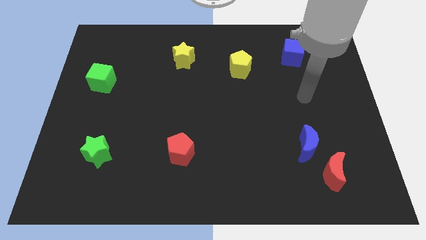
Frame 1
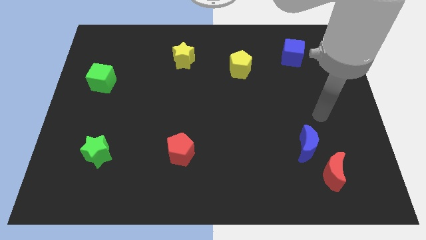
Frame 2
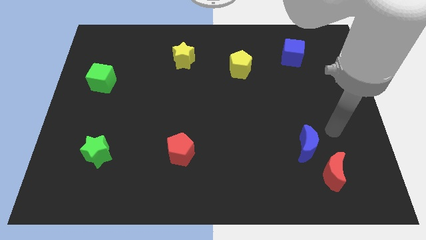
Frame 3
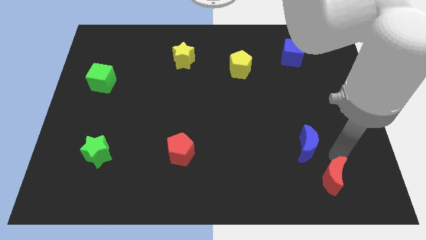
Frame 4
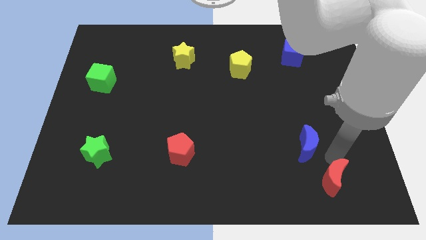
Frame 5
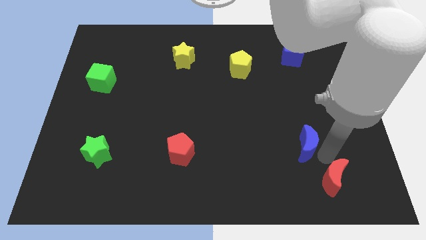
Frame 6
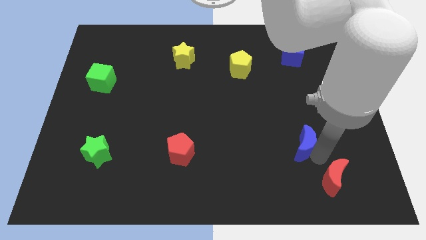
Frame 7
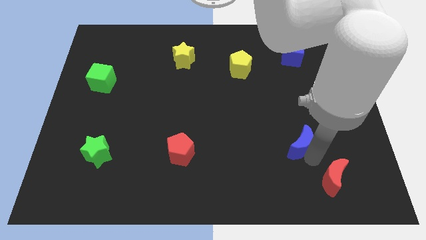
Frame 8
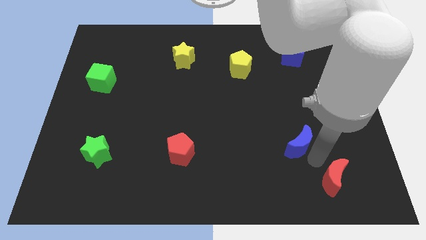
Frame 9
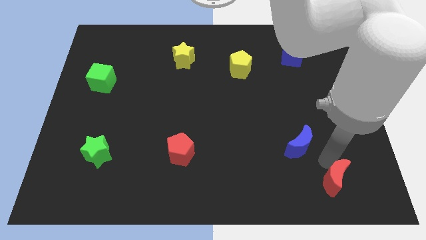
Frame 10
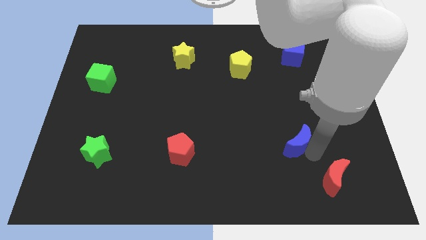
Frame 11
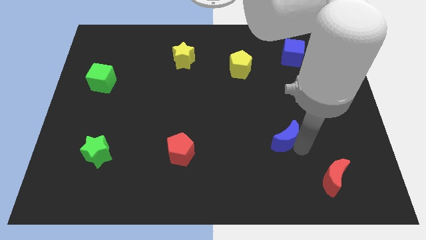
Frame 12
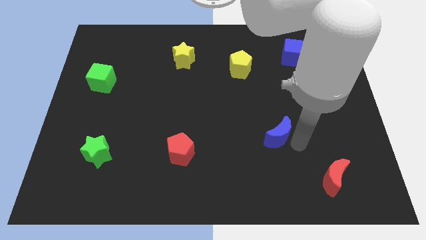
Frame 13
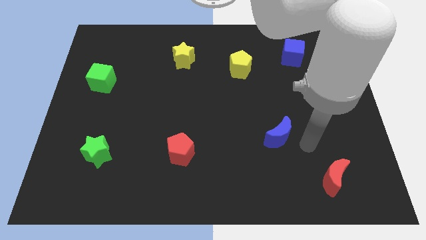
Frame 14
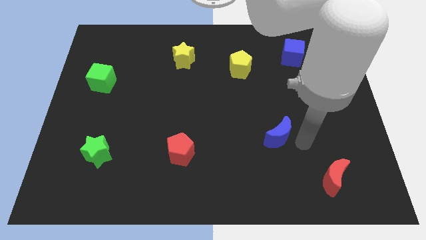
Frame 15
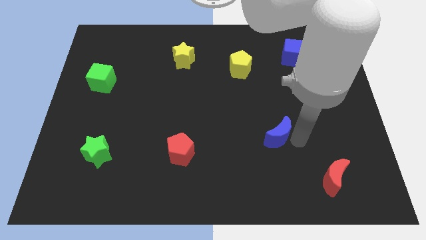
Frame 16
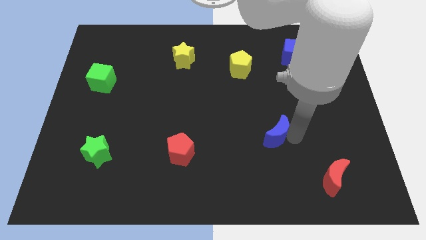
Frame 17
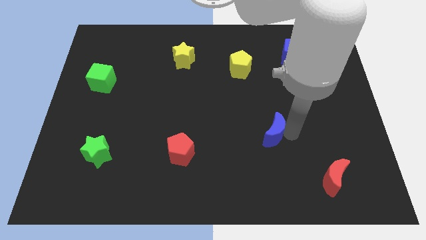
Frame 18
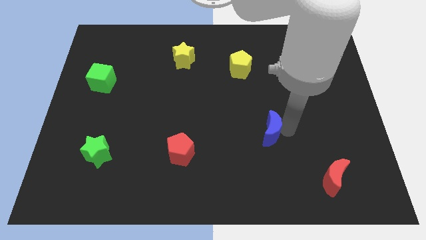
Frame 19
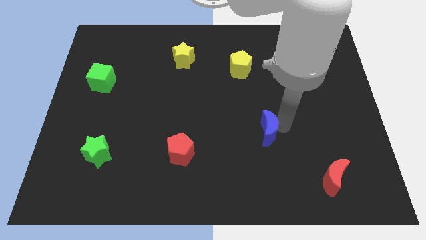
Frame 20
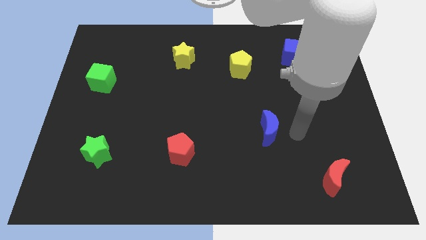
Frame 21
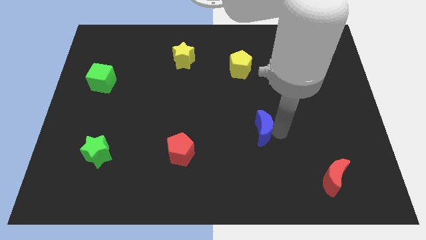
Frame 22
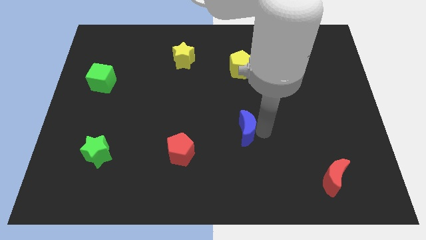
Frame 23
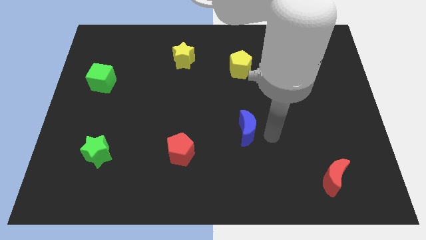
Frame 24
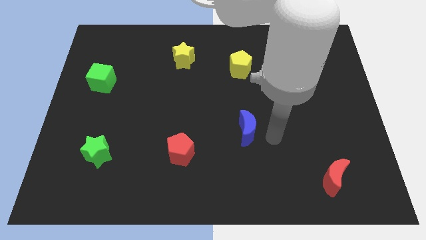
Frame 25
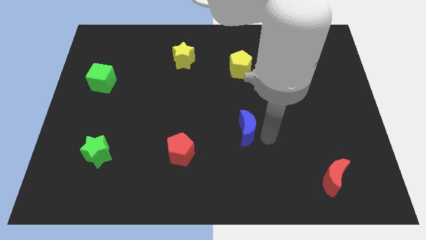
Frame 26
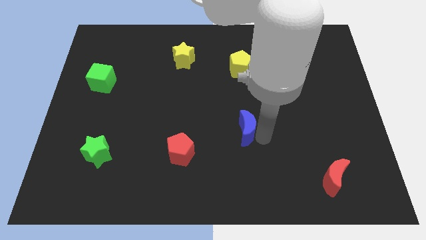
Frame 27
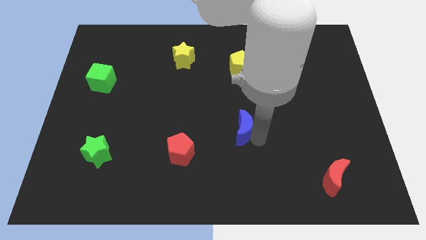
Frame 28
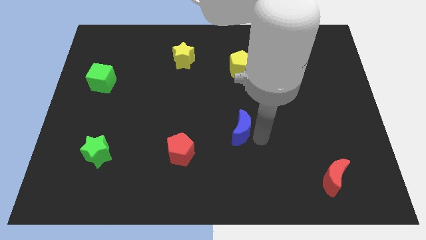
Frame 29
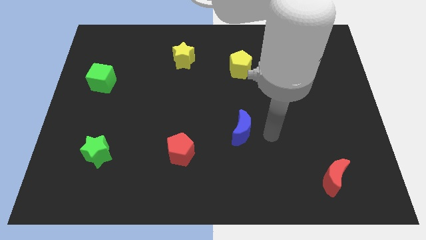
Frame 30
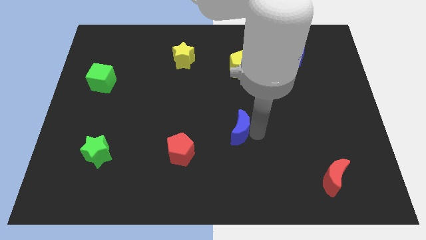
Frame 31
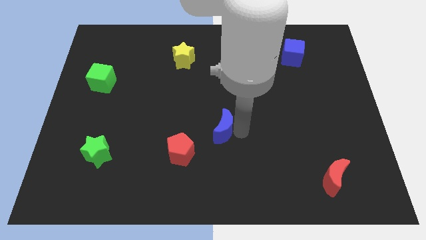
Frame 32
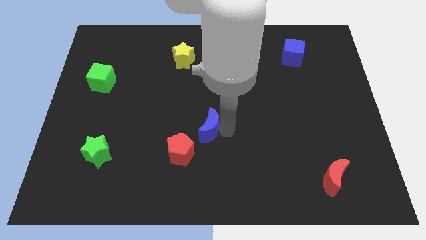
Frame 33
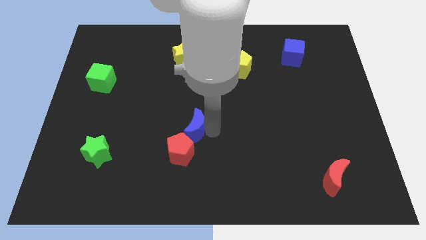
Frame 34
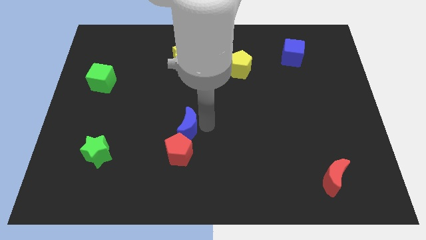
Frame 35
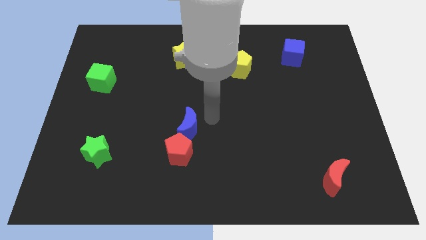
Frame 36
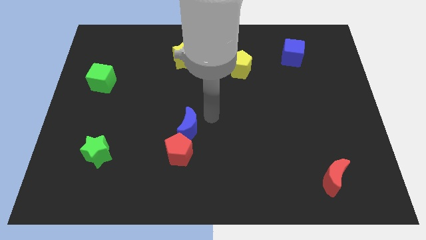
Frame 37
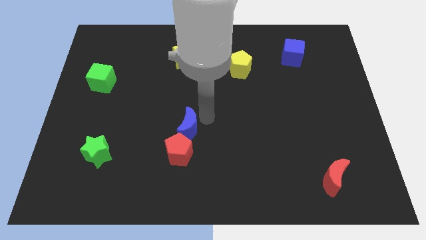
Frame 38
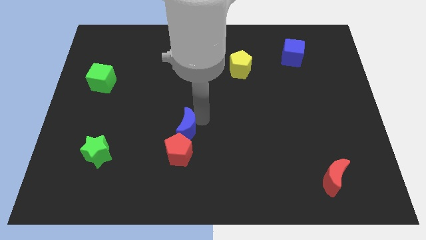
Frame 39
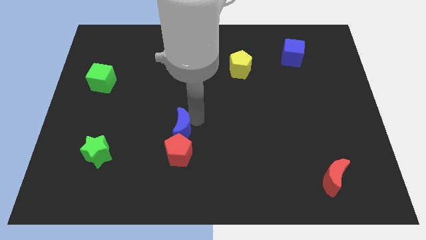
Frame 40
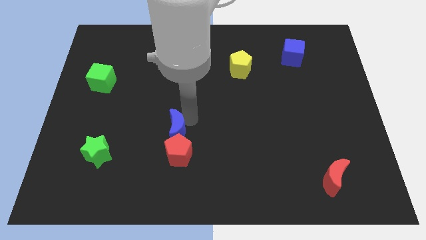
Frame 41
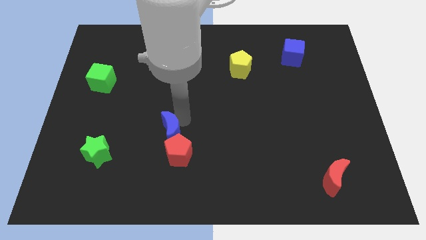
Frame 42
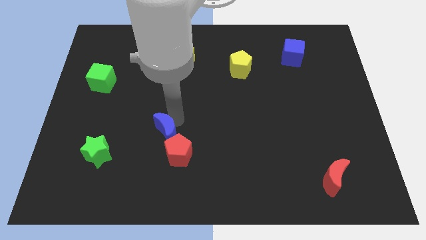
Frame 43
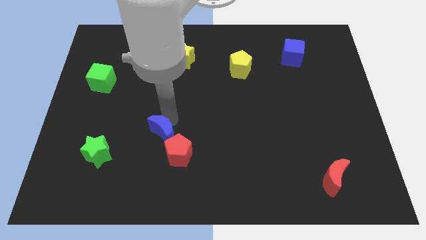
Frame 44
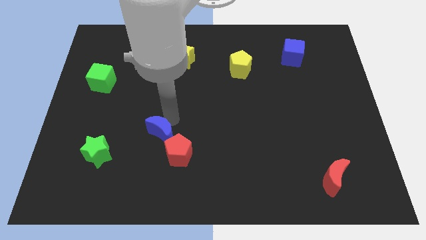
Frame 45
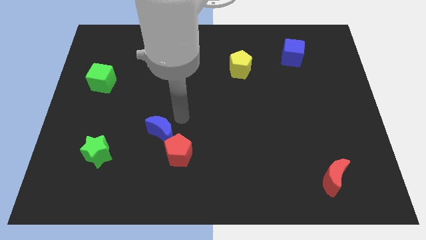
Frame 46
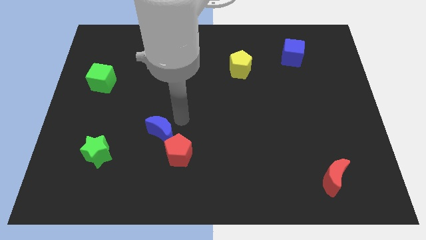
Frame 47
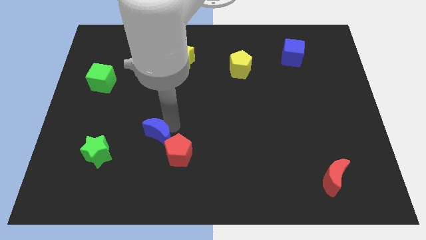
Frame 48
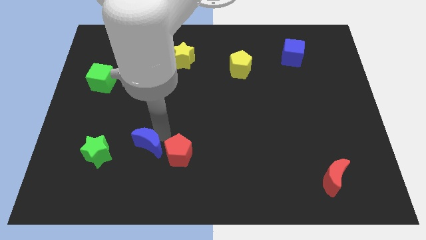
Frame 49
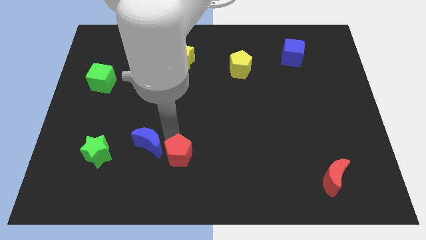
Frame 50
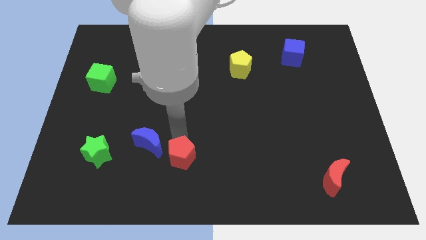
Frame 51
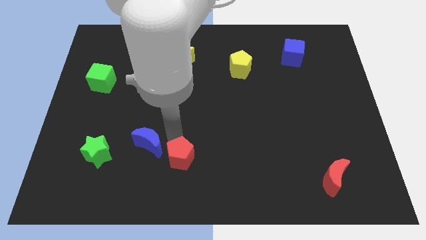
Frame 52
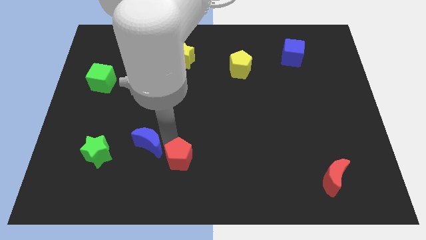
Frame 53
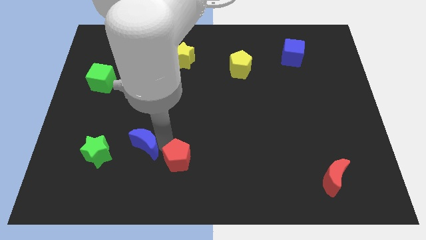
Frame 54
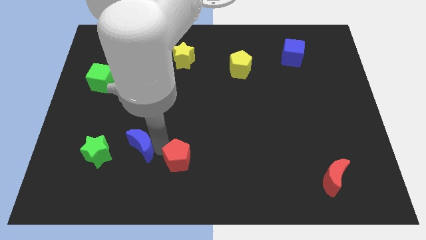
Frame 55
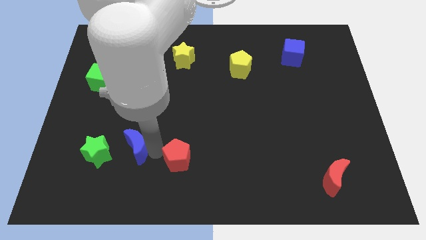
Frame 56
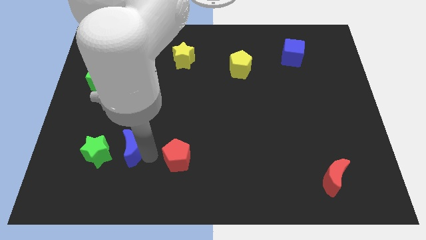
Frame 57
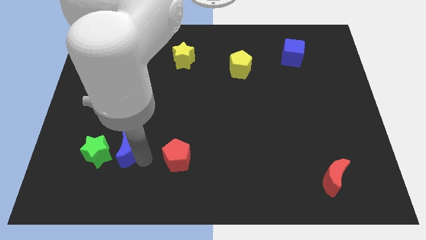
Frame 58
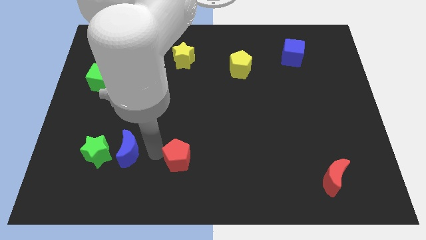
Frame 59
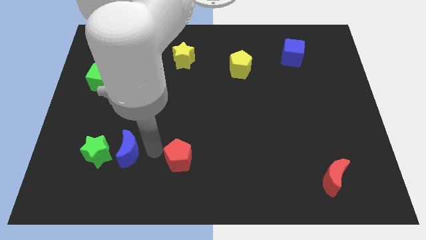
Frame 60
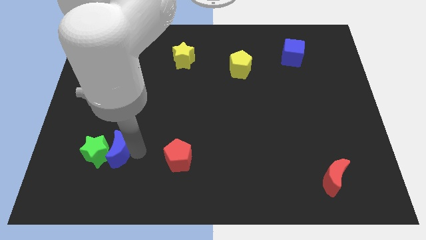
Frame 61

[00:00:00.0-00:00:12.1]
slide the blue moon to the green star

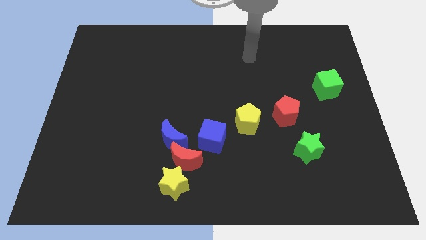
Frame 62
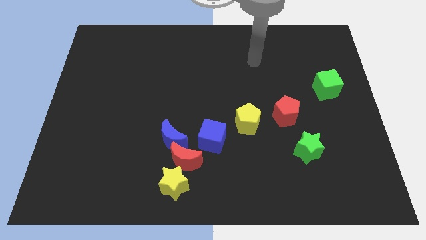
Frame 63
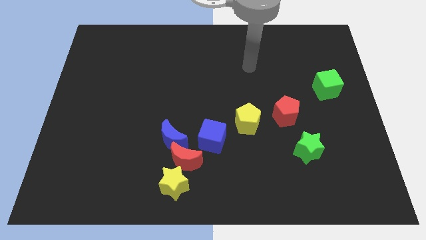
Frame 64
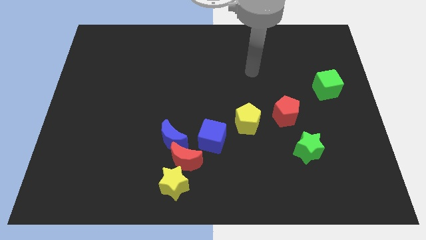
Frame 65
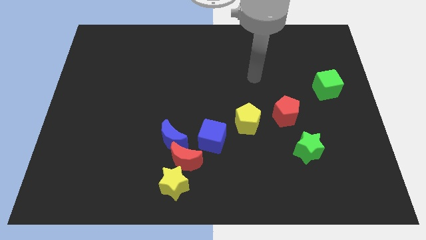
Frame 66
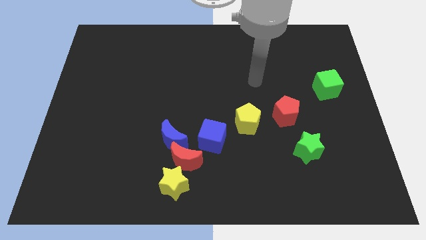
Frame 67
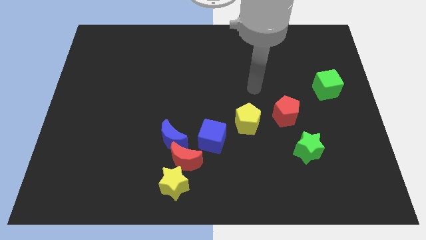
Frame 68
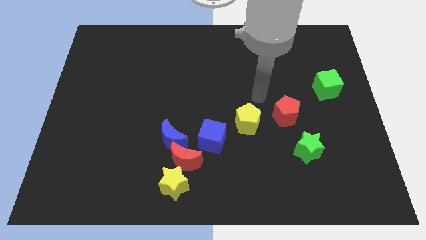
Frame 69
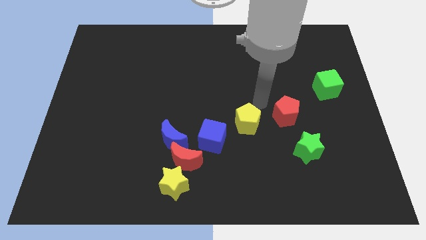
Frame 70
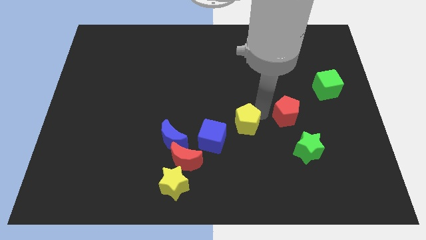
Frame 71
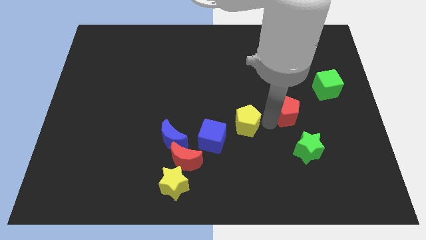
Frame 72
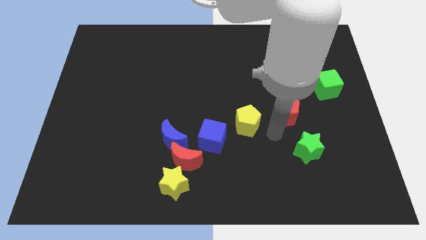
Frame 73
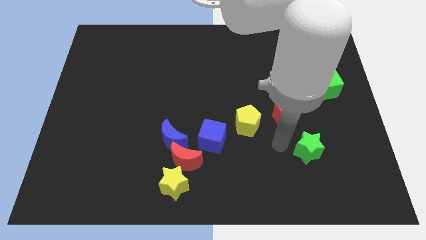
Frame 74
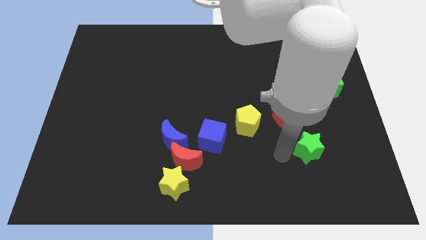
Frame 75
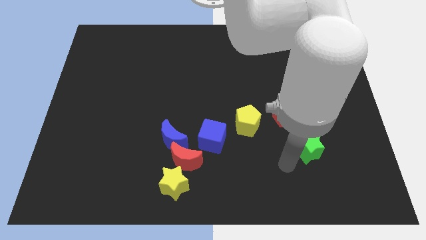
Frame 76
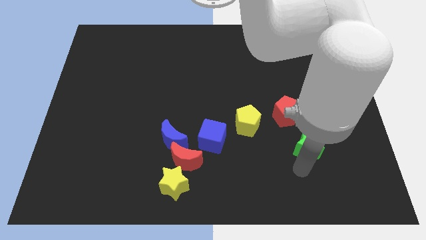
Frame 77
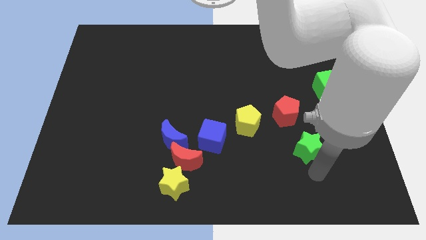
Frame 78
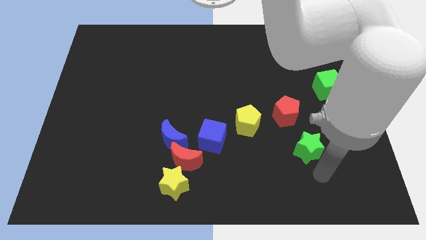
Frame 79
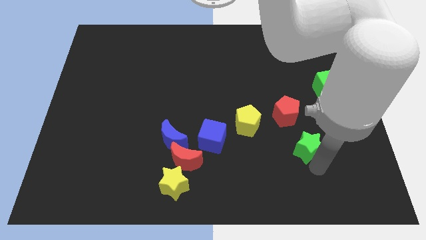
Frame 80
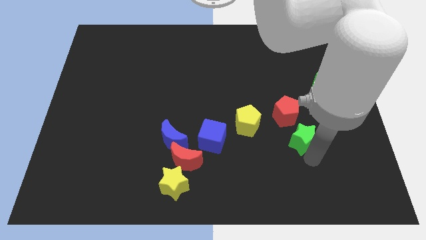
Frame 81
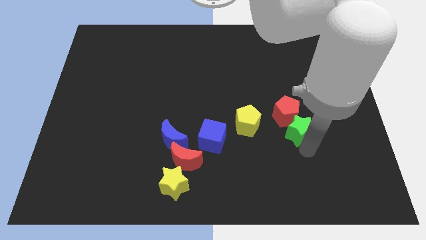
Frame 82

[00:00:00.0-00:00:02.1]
put the green star next to the red pentagon
